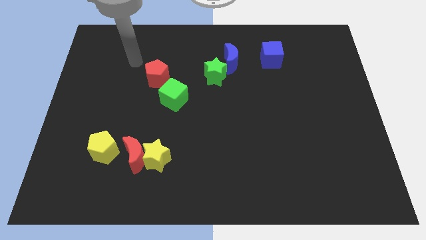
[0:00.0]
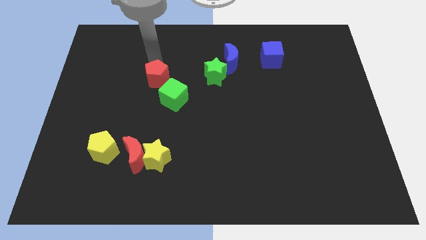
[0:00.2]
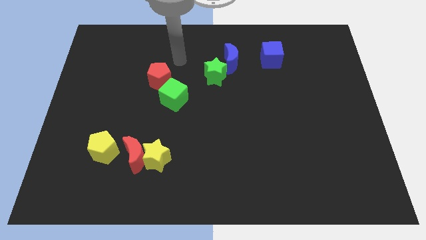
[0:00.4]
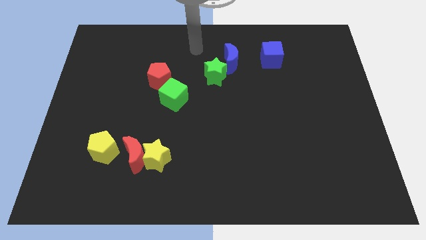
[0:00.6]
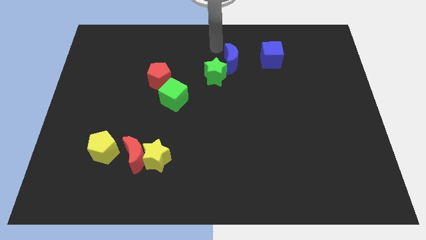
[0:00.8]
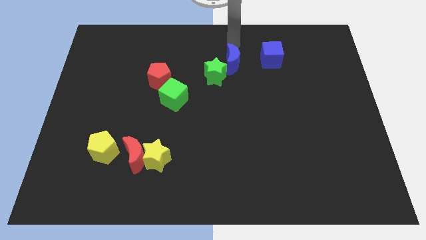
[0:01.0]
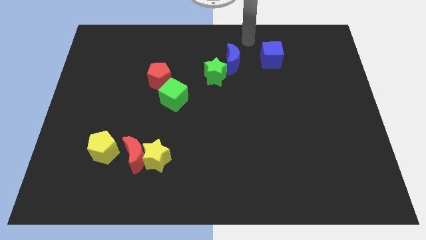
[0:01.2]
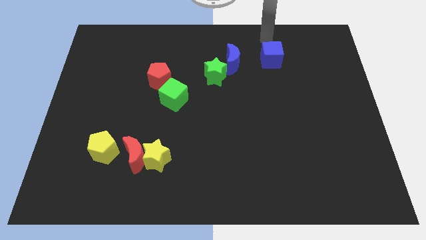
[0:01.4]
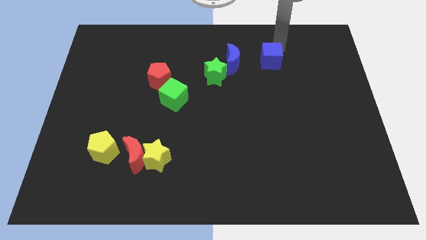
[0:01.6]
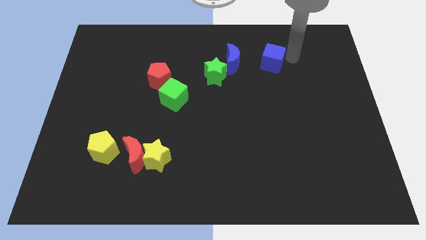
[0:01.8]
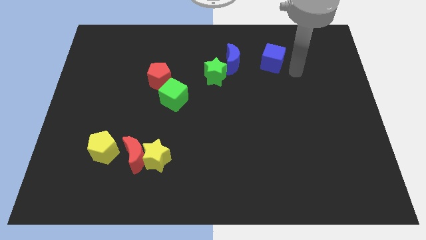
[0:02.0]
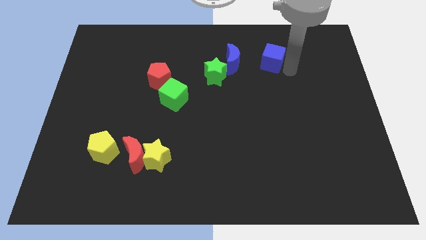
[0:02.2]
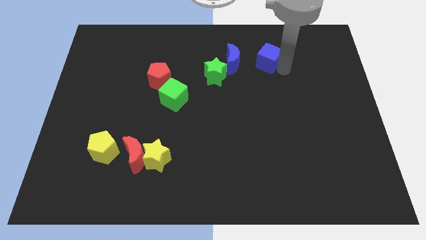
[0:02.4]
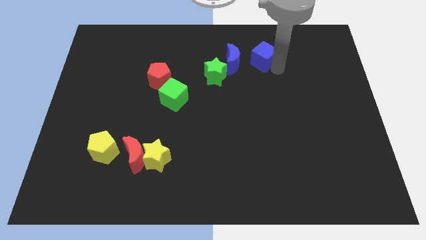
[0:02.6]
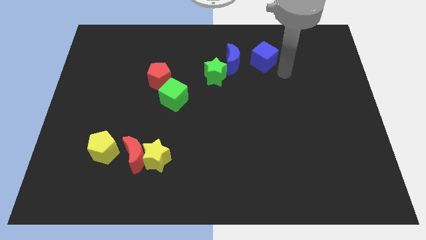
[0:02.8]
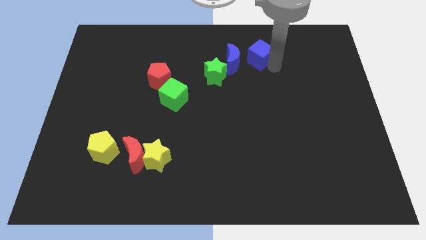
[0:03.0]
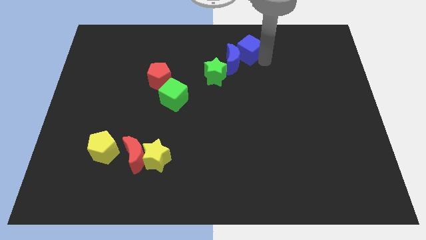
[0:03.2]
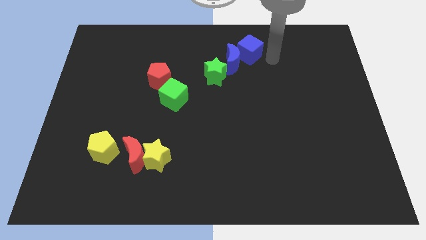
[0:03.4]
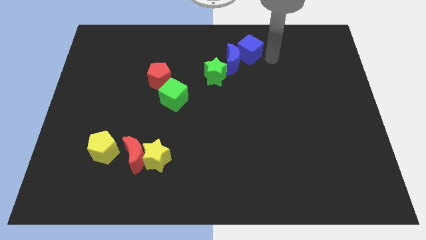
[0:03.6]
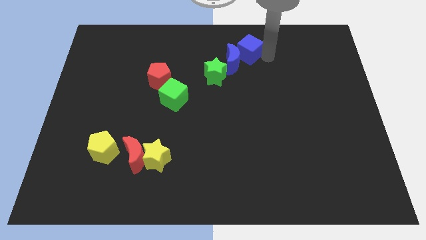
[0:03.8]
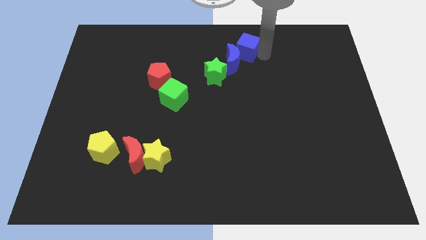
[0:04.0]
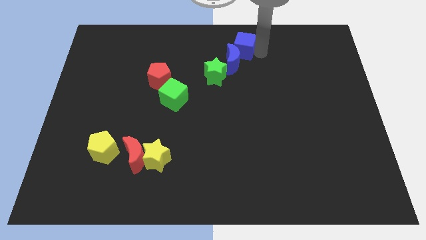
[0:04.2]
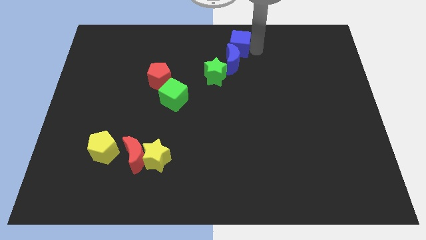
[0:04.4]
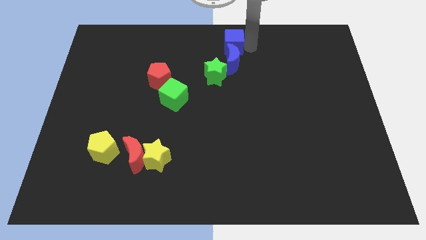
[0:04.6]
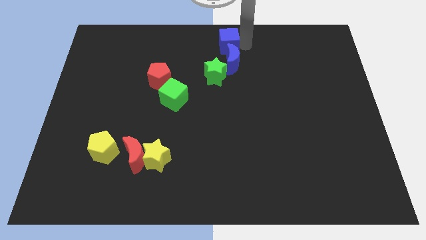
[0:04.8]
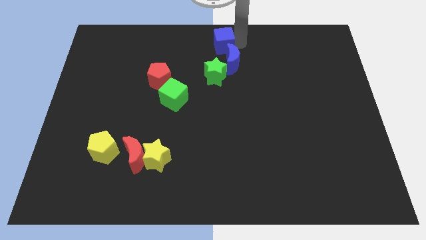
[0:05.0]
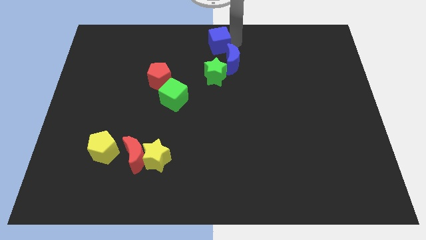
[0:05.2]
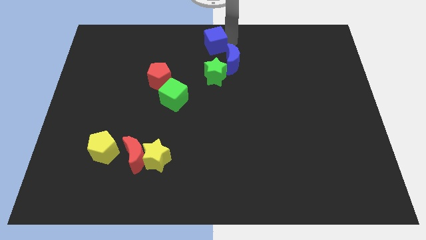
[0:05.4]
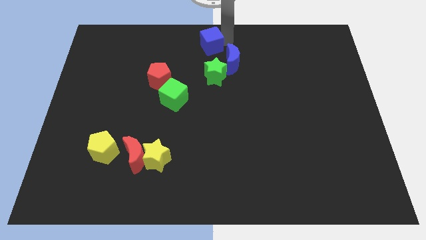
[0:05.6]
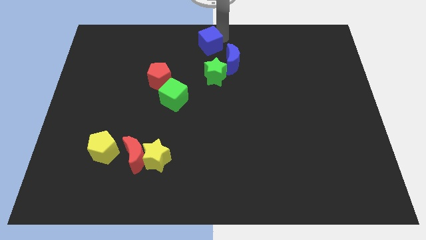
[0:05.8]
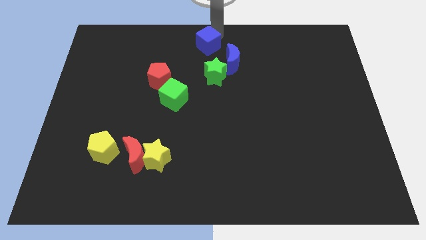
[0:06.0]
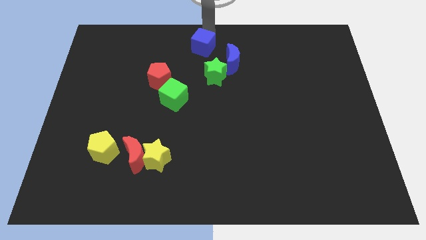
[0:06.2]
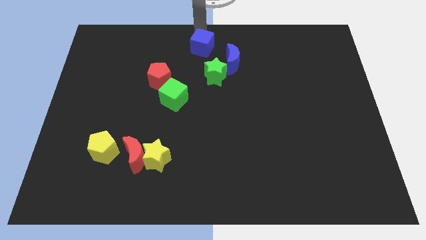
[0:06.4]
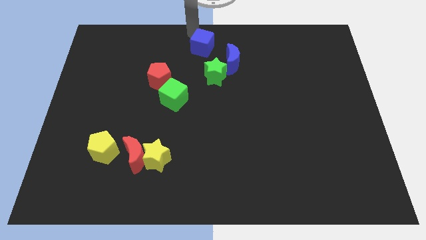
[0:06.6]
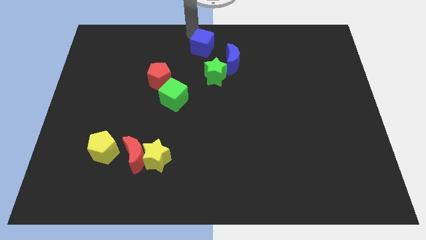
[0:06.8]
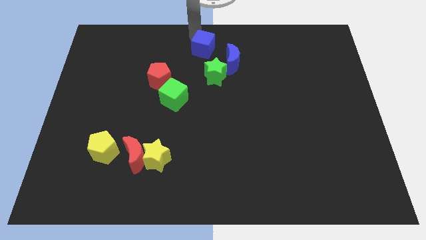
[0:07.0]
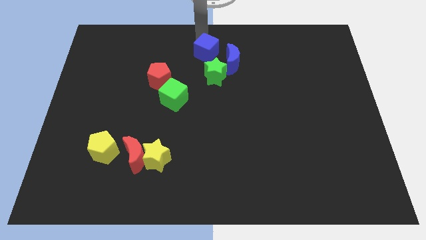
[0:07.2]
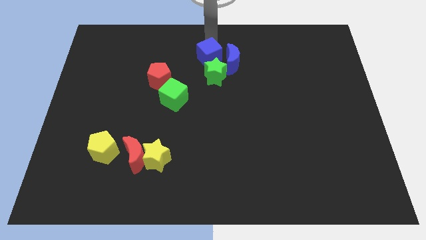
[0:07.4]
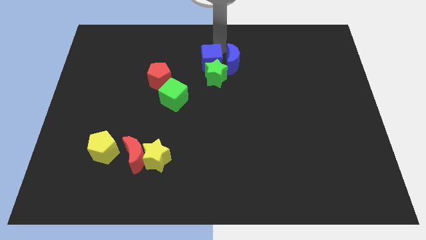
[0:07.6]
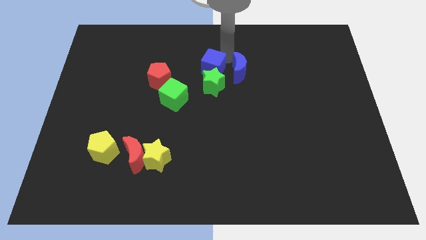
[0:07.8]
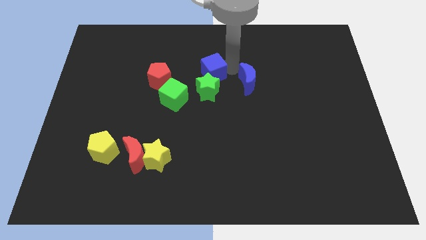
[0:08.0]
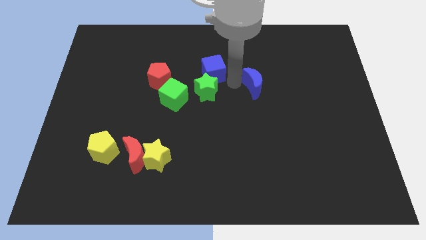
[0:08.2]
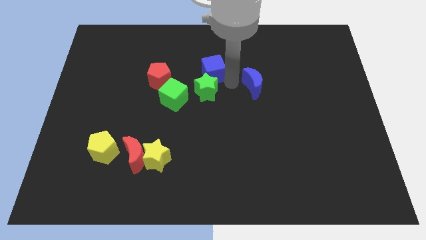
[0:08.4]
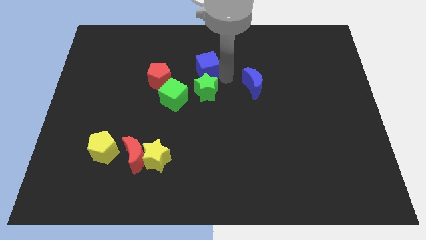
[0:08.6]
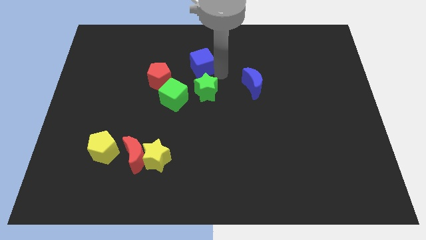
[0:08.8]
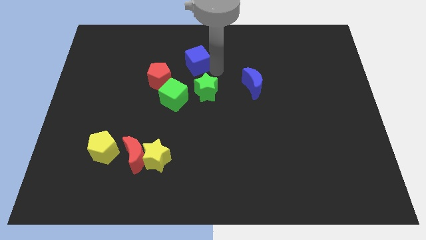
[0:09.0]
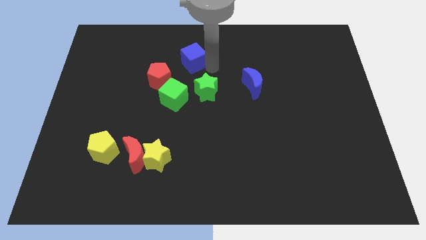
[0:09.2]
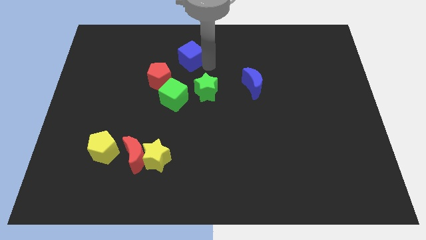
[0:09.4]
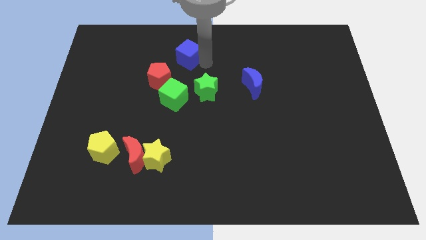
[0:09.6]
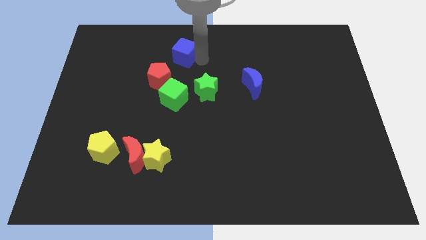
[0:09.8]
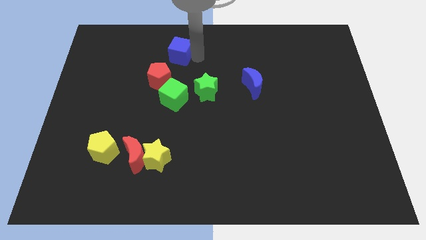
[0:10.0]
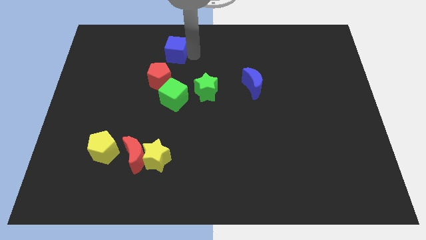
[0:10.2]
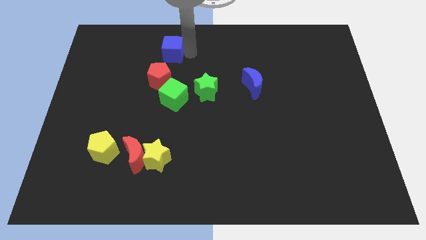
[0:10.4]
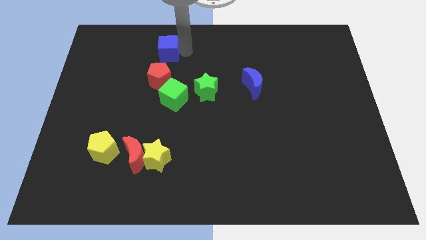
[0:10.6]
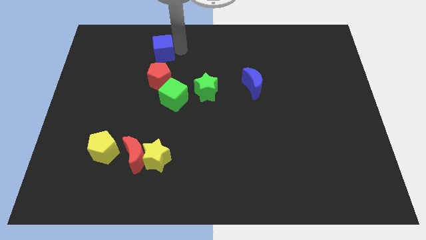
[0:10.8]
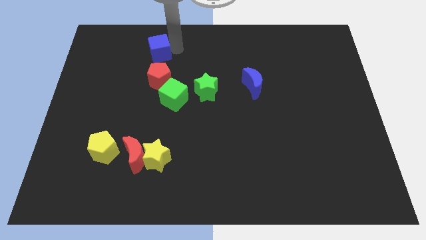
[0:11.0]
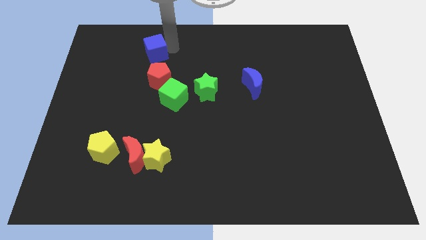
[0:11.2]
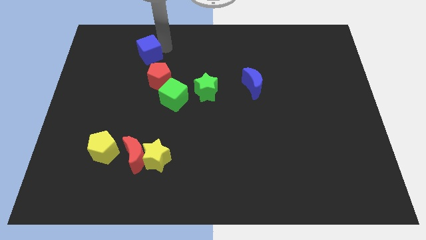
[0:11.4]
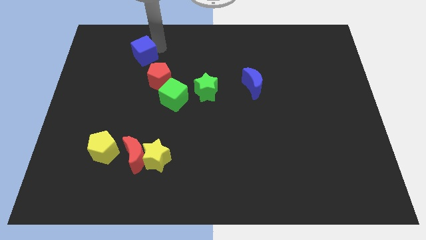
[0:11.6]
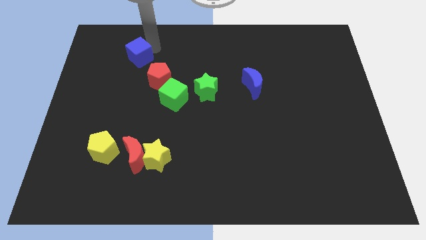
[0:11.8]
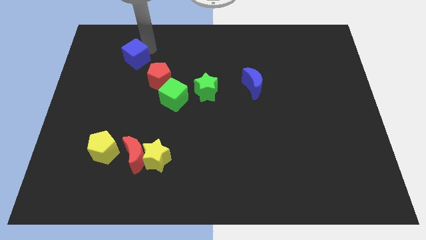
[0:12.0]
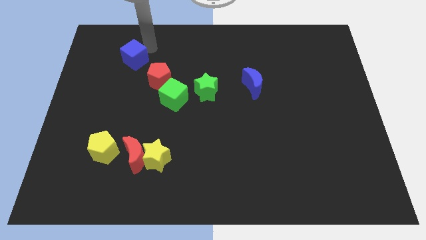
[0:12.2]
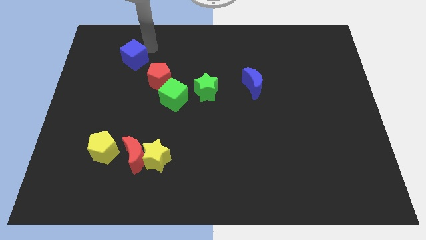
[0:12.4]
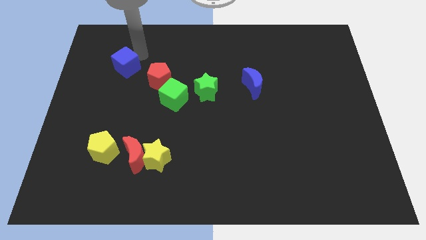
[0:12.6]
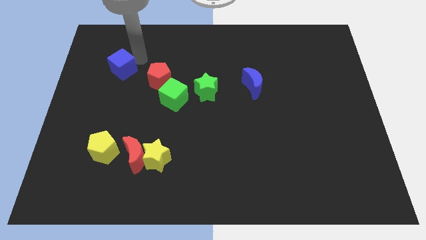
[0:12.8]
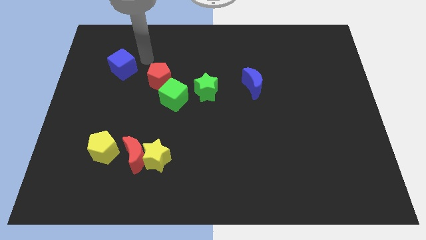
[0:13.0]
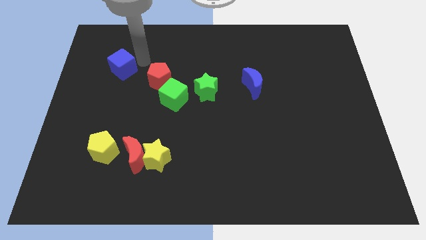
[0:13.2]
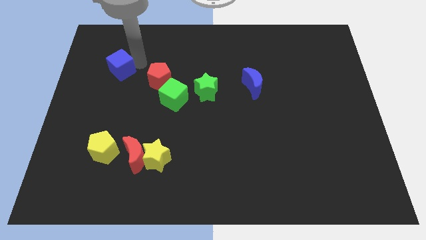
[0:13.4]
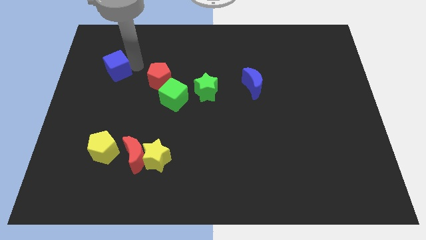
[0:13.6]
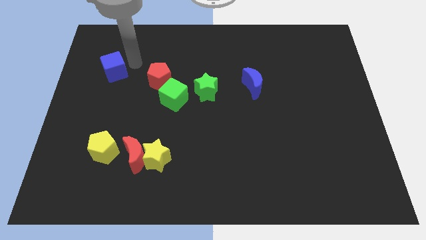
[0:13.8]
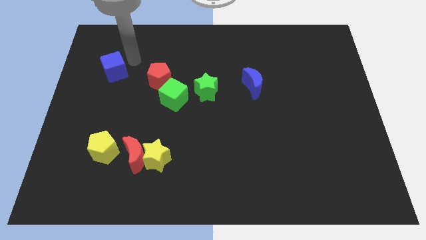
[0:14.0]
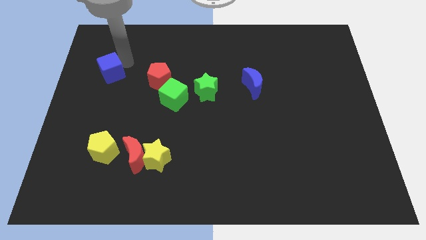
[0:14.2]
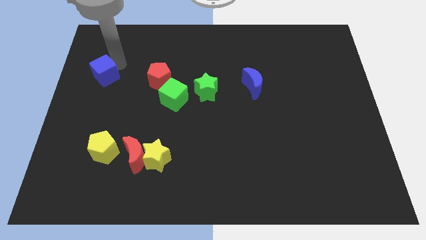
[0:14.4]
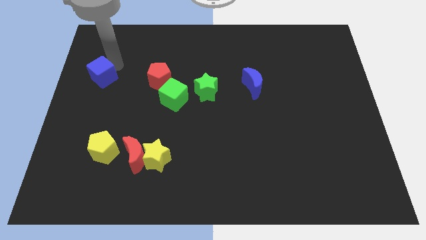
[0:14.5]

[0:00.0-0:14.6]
move the blue cube to the left side of the board
